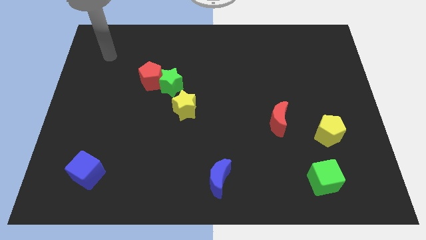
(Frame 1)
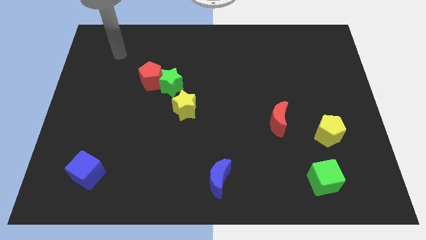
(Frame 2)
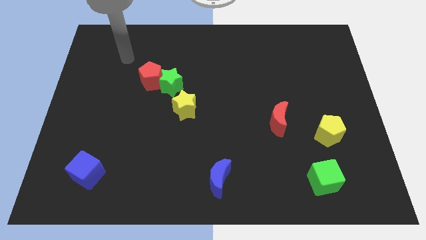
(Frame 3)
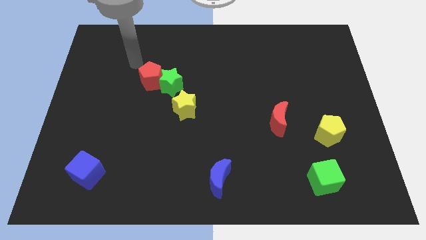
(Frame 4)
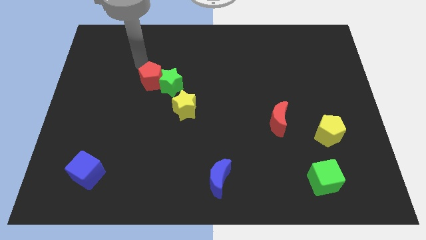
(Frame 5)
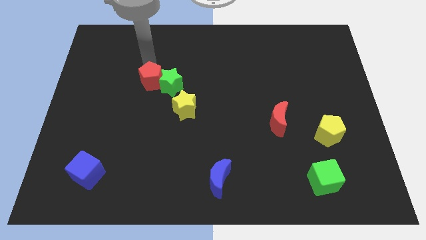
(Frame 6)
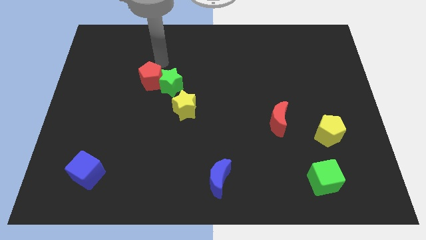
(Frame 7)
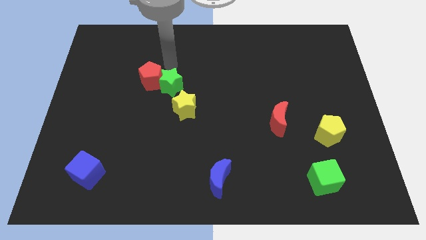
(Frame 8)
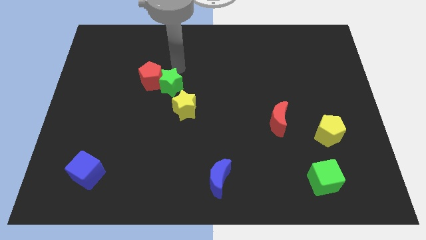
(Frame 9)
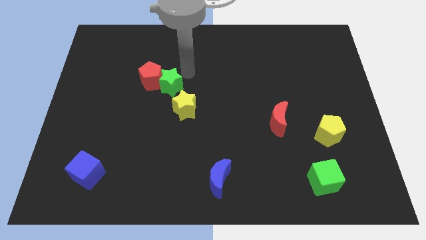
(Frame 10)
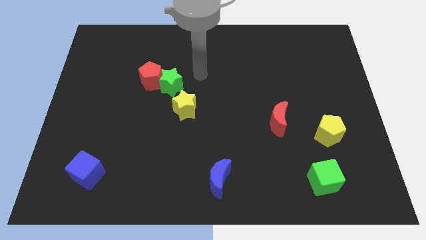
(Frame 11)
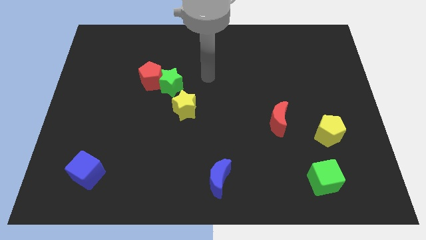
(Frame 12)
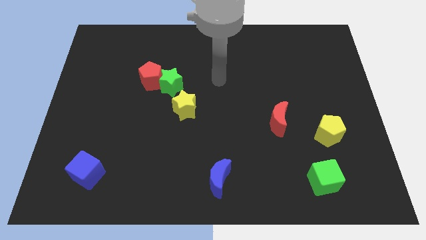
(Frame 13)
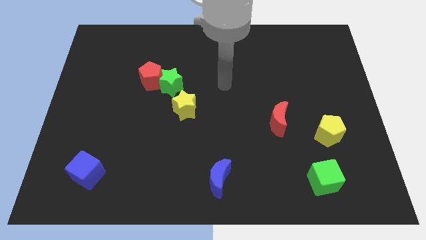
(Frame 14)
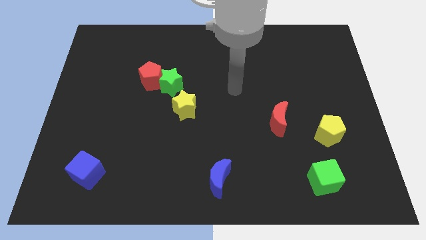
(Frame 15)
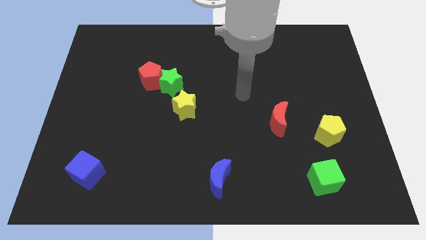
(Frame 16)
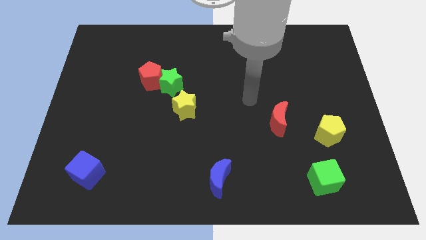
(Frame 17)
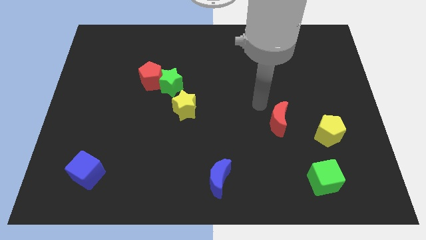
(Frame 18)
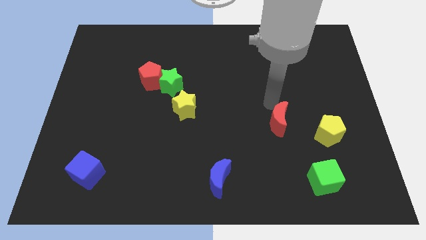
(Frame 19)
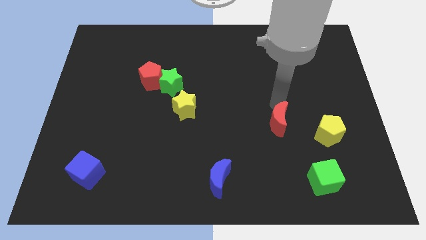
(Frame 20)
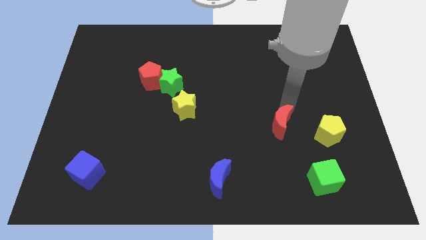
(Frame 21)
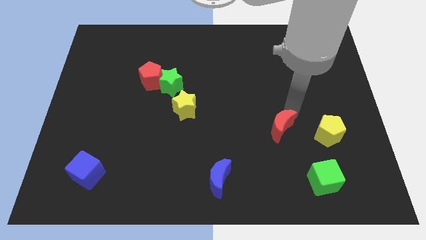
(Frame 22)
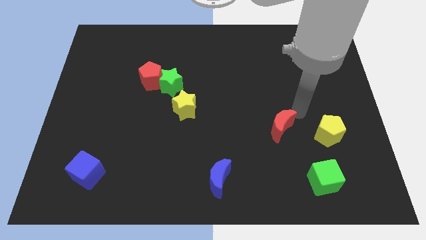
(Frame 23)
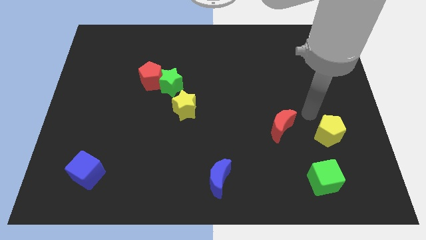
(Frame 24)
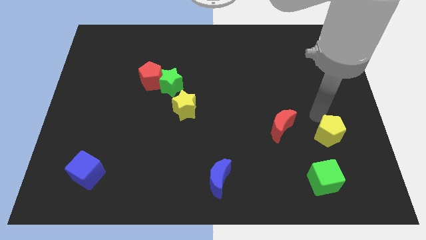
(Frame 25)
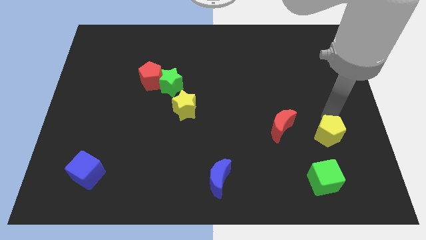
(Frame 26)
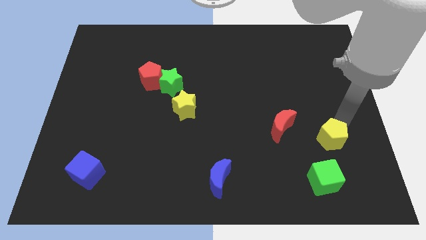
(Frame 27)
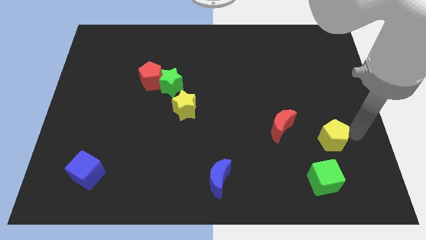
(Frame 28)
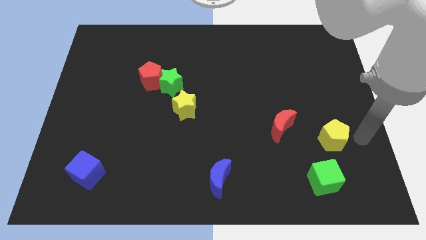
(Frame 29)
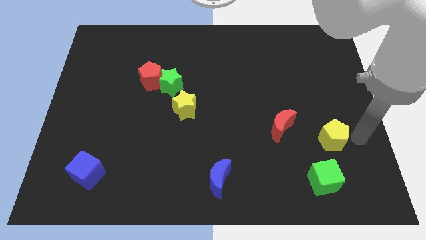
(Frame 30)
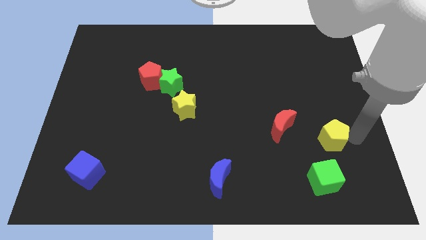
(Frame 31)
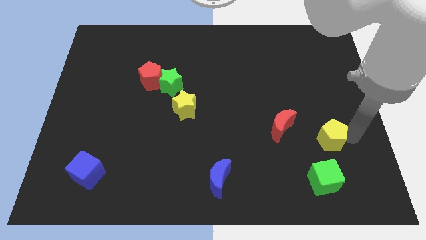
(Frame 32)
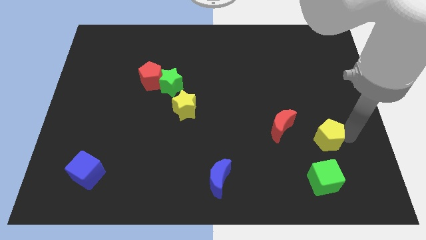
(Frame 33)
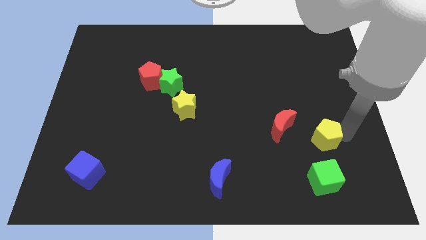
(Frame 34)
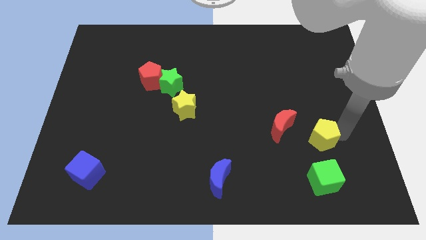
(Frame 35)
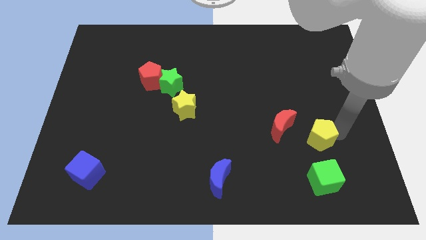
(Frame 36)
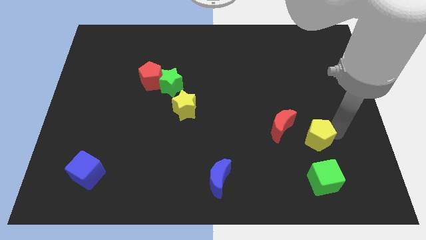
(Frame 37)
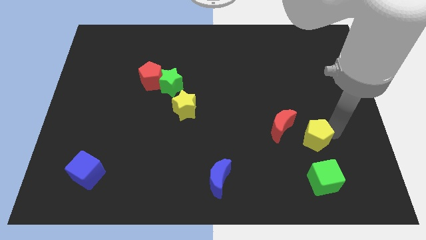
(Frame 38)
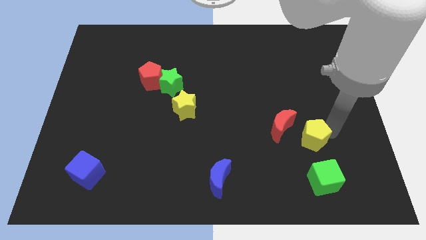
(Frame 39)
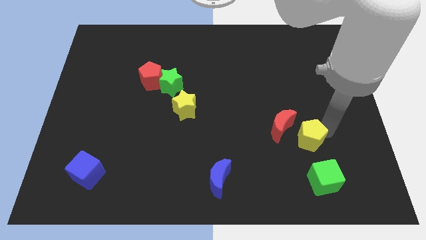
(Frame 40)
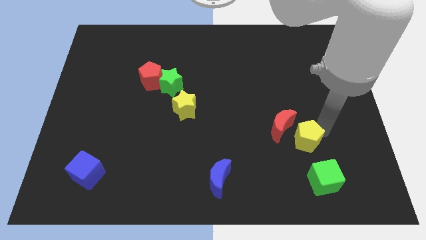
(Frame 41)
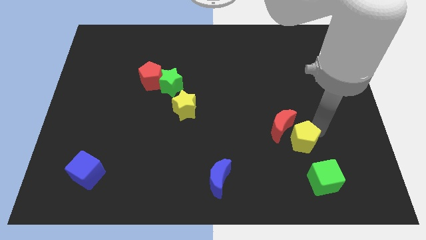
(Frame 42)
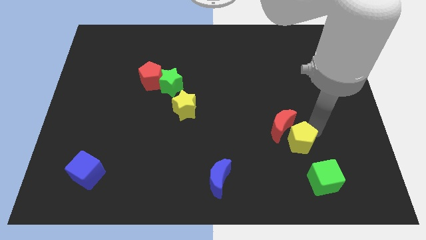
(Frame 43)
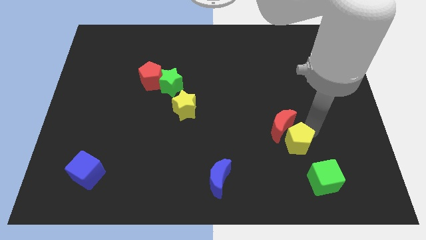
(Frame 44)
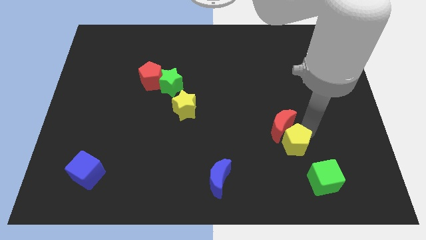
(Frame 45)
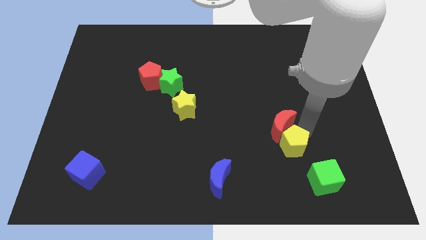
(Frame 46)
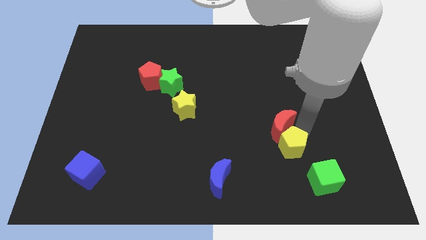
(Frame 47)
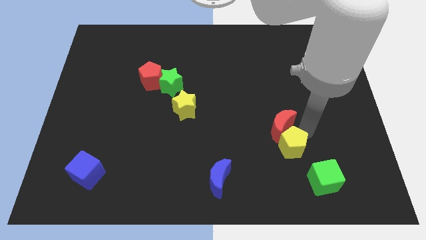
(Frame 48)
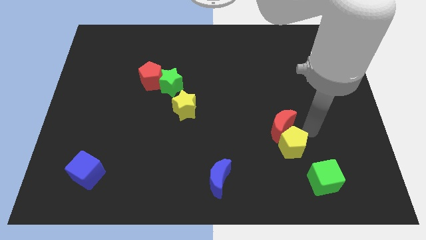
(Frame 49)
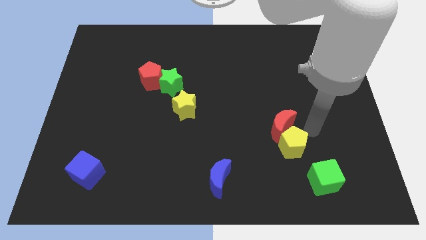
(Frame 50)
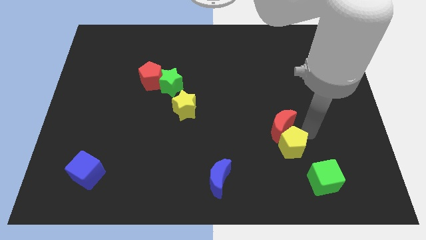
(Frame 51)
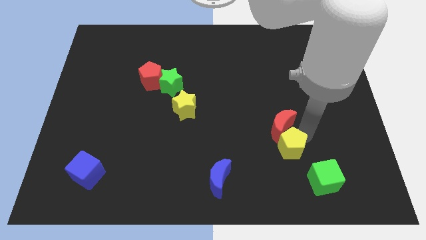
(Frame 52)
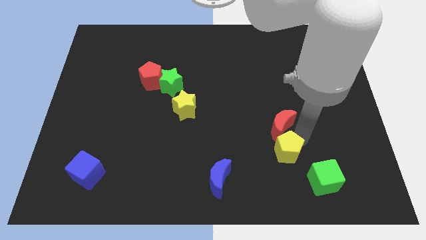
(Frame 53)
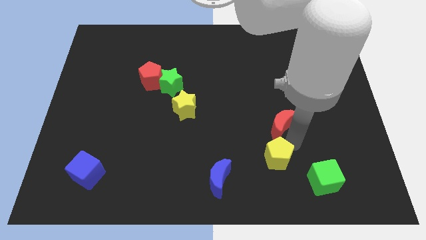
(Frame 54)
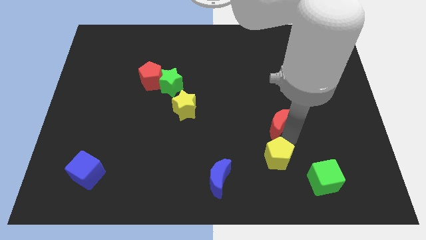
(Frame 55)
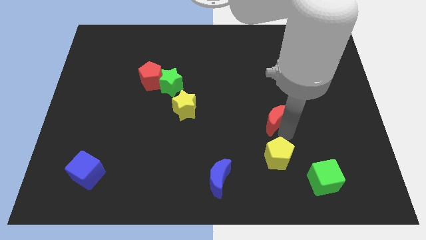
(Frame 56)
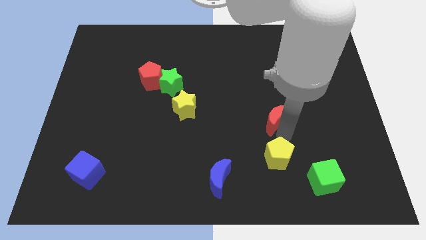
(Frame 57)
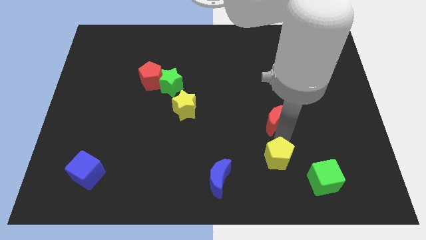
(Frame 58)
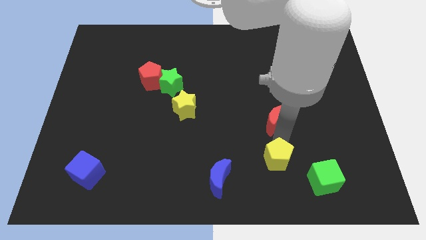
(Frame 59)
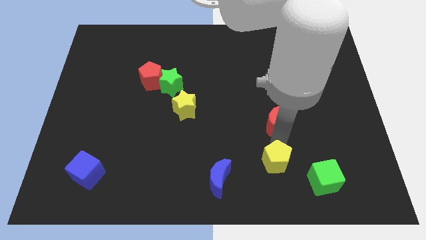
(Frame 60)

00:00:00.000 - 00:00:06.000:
put the yellow pentagon just right of the blue moon
